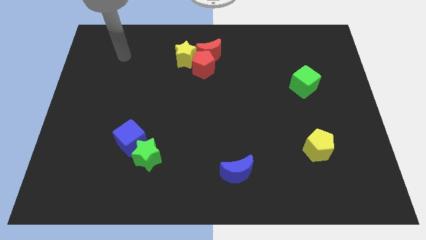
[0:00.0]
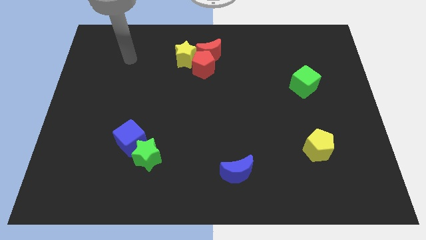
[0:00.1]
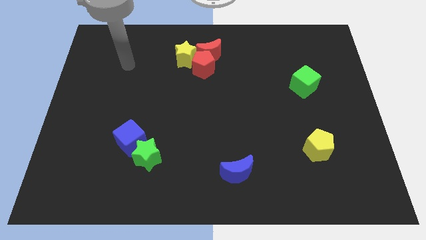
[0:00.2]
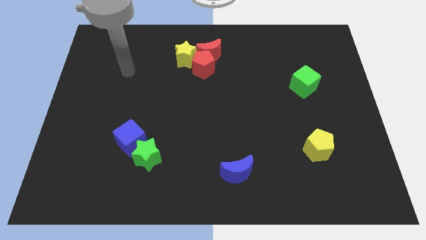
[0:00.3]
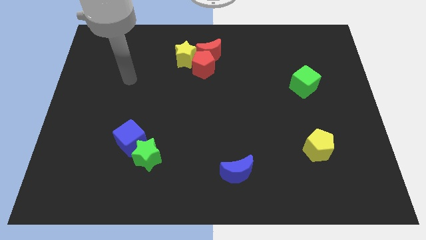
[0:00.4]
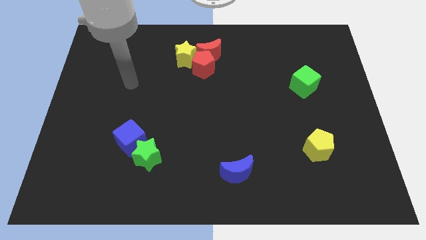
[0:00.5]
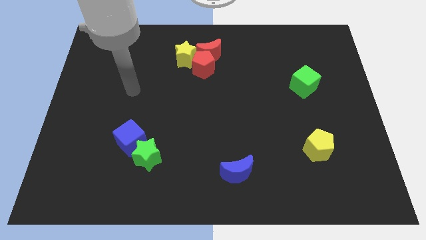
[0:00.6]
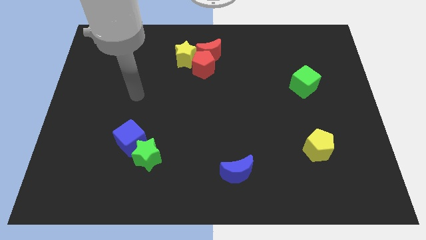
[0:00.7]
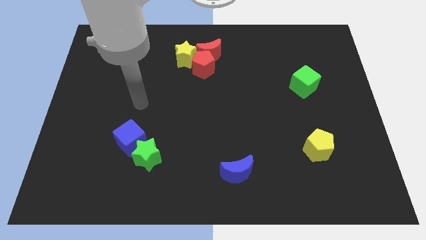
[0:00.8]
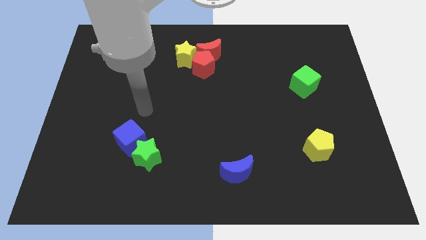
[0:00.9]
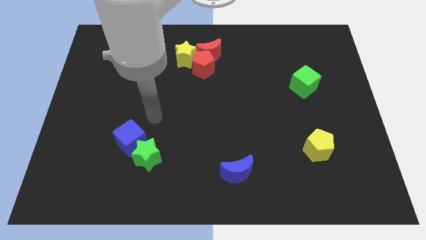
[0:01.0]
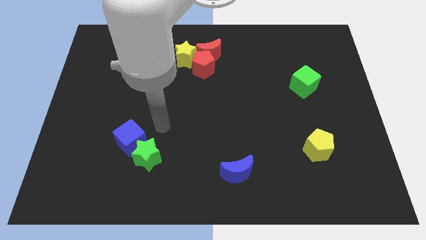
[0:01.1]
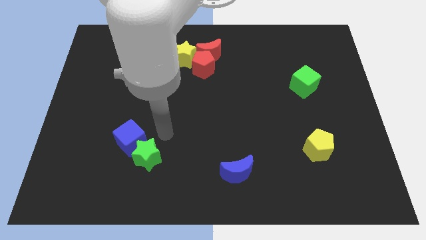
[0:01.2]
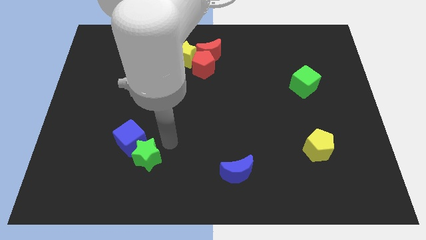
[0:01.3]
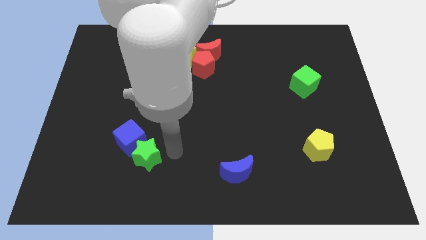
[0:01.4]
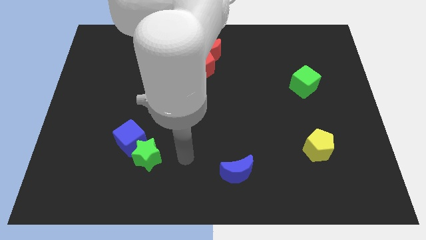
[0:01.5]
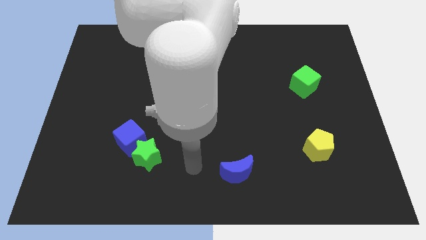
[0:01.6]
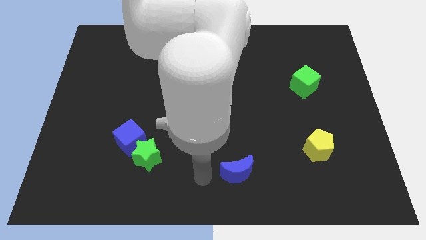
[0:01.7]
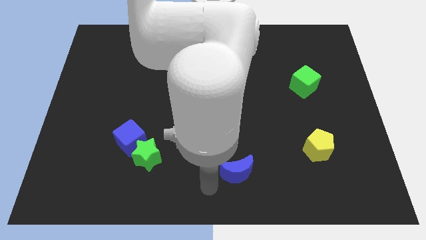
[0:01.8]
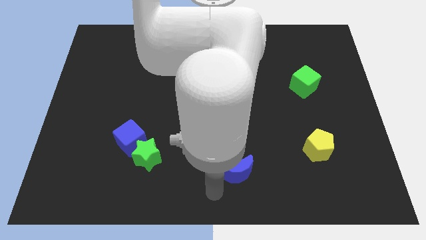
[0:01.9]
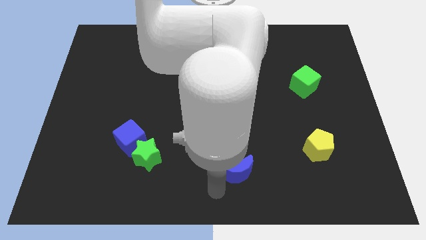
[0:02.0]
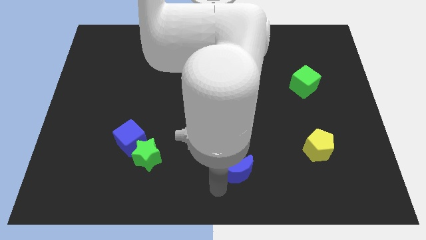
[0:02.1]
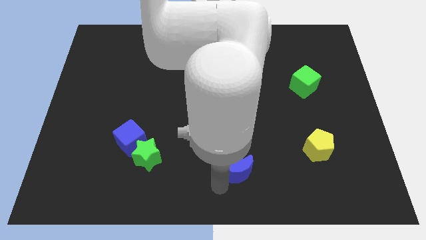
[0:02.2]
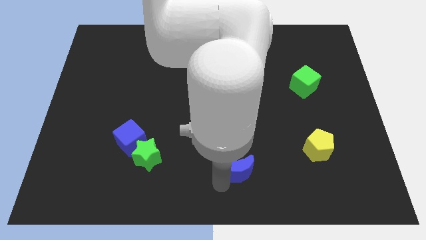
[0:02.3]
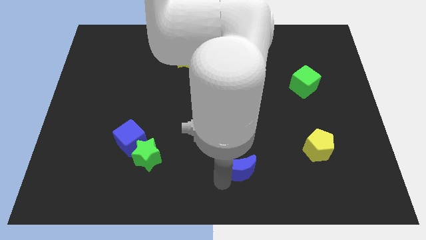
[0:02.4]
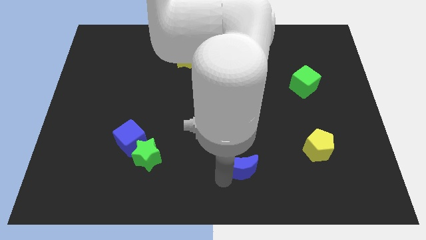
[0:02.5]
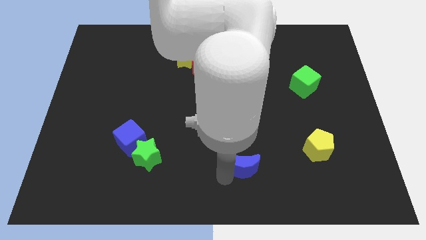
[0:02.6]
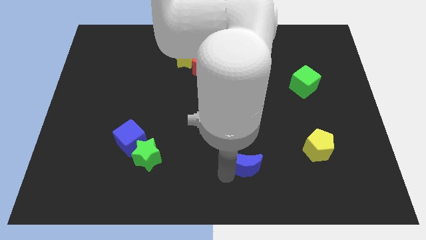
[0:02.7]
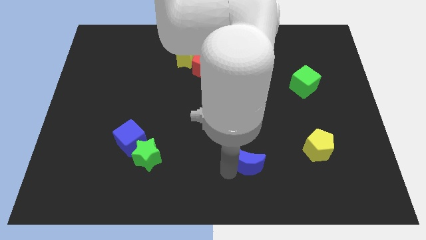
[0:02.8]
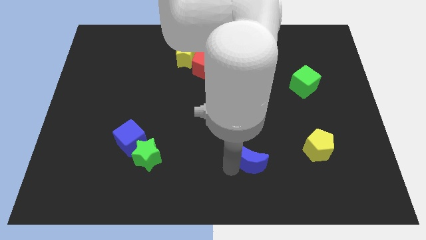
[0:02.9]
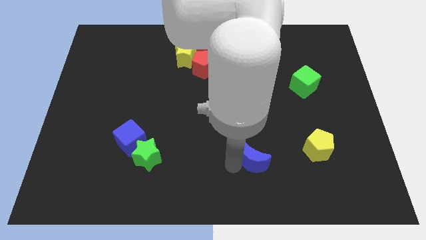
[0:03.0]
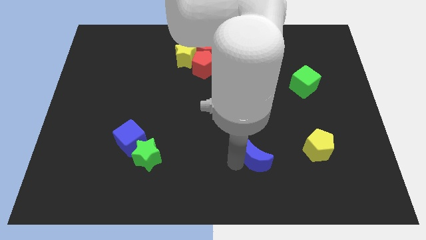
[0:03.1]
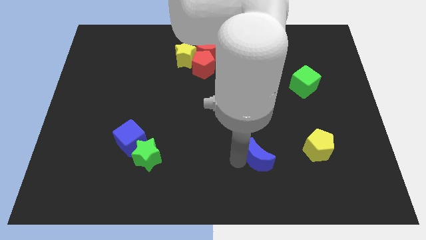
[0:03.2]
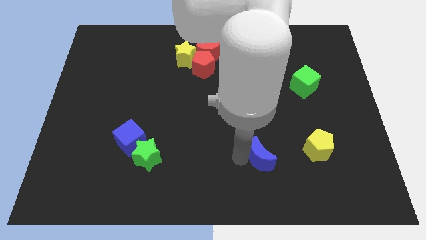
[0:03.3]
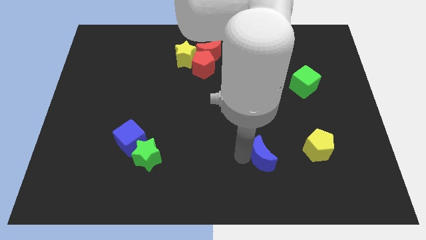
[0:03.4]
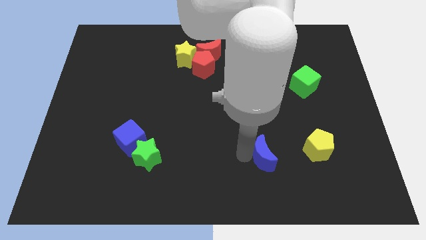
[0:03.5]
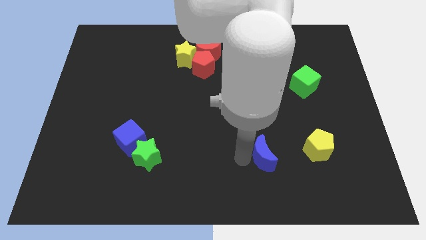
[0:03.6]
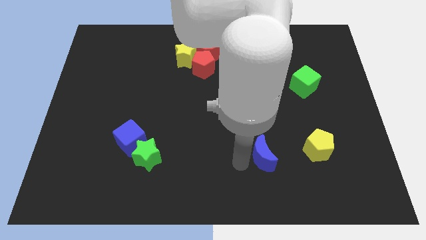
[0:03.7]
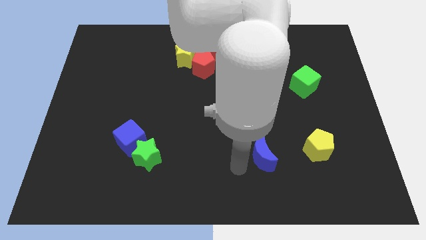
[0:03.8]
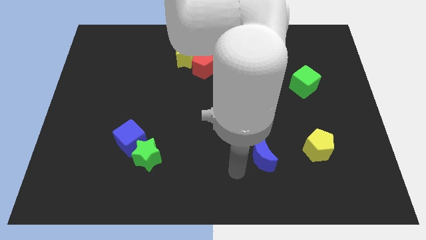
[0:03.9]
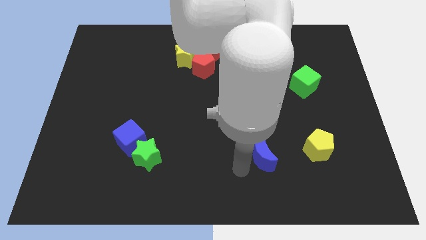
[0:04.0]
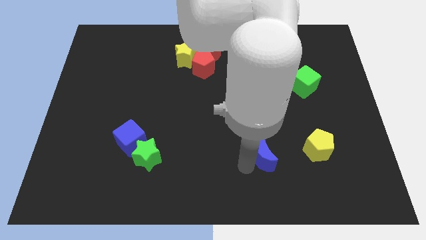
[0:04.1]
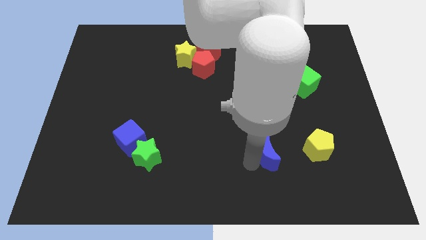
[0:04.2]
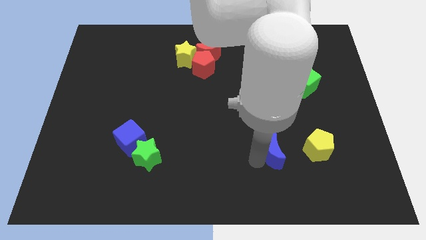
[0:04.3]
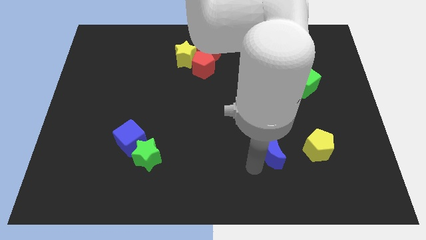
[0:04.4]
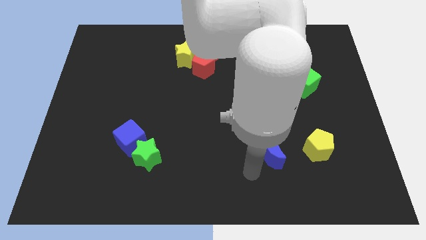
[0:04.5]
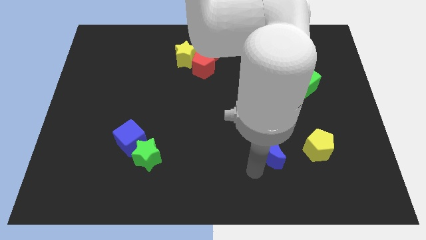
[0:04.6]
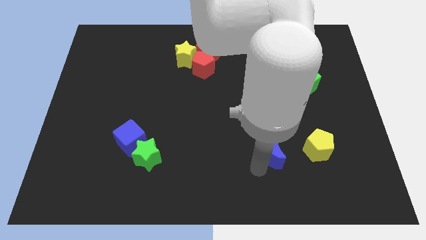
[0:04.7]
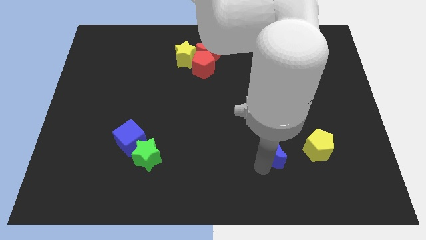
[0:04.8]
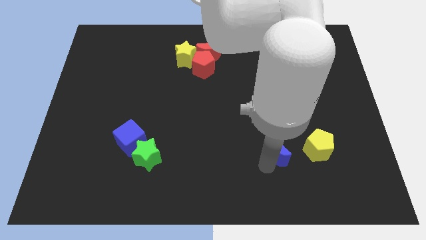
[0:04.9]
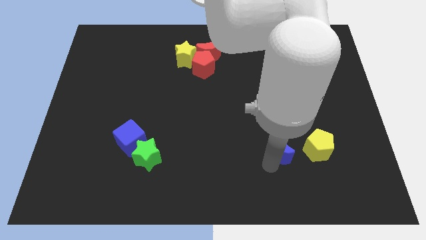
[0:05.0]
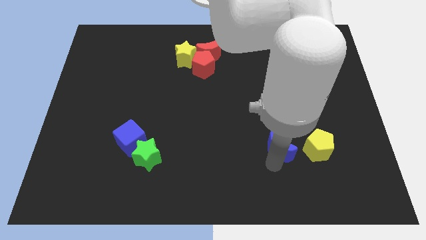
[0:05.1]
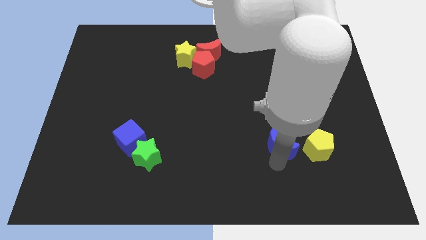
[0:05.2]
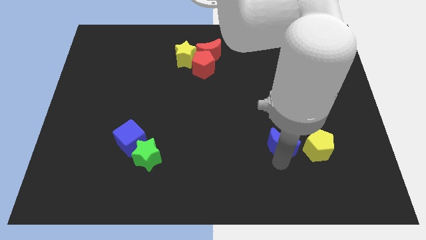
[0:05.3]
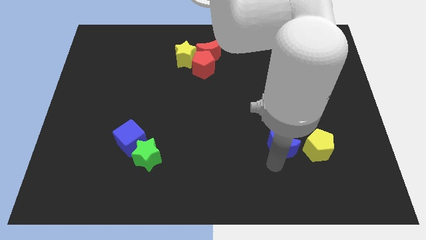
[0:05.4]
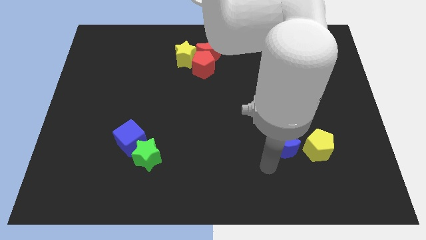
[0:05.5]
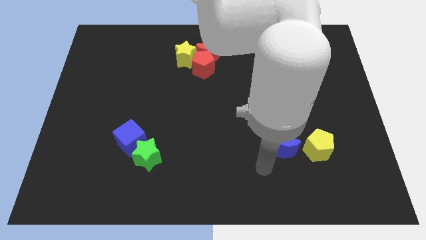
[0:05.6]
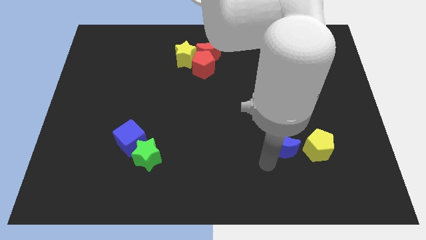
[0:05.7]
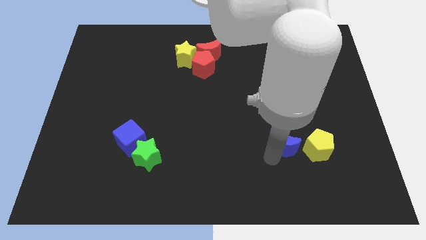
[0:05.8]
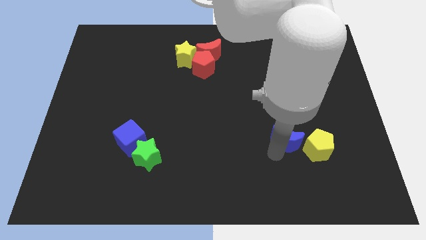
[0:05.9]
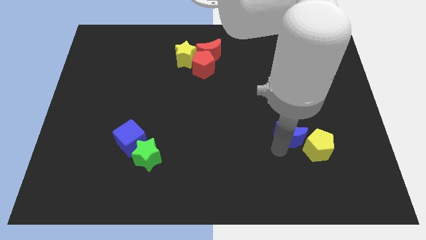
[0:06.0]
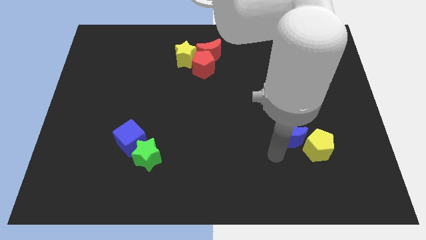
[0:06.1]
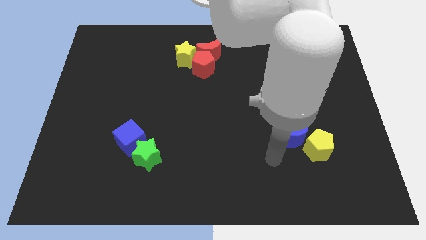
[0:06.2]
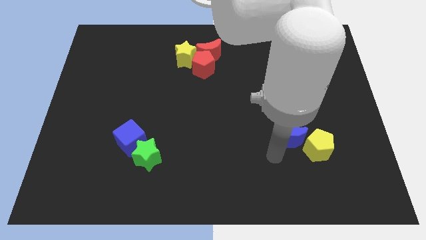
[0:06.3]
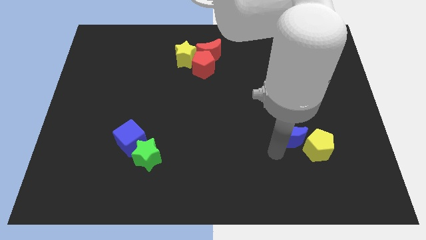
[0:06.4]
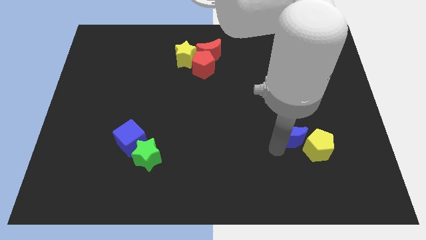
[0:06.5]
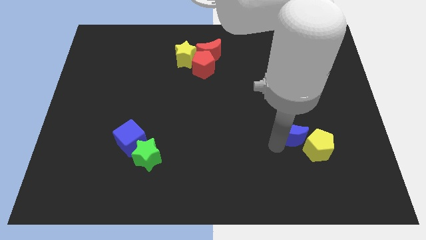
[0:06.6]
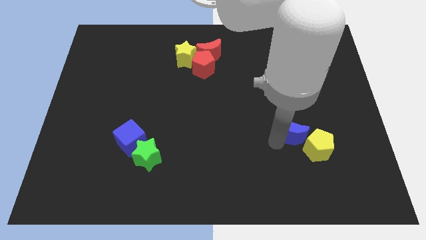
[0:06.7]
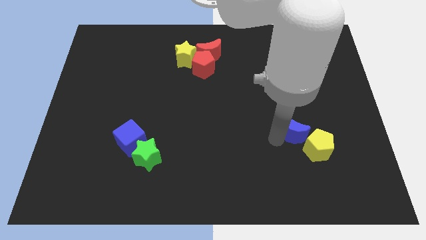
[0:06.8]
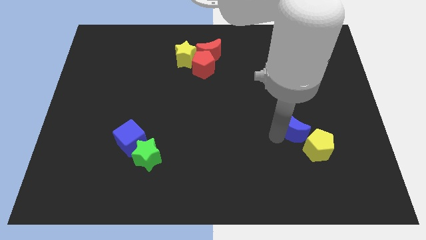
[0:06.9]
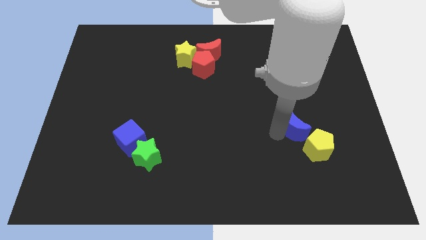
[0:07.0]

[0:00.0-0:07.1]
push the blue moon to the top of the yellow pentagon
